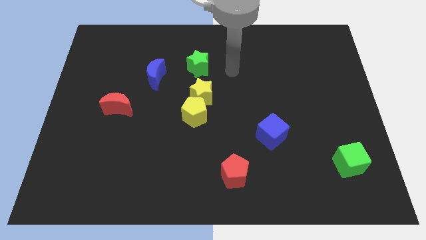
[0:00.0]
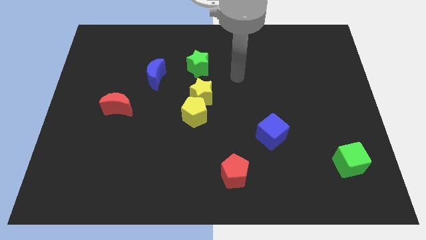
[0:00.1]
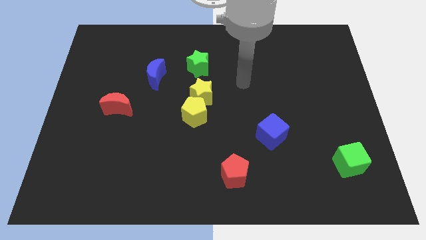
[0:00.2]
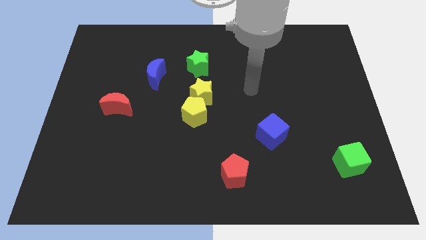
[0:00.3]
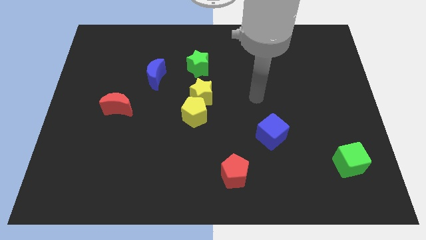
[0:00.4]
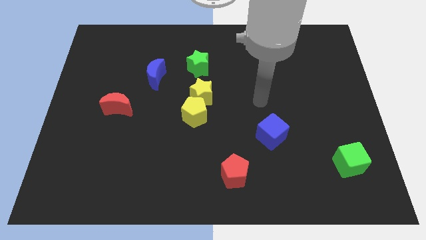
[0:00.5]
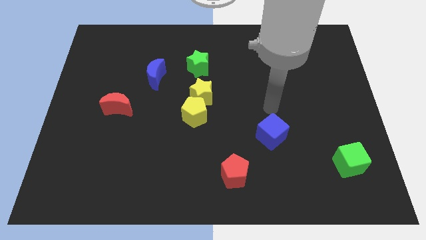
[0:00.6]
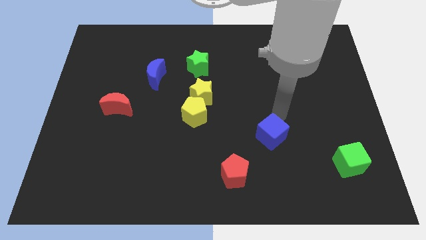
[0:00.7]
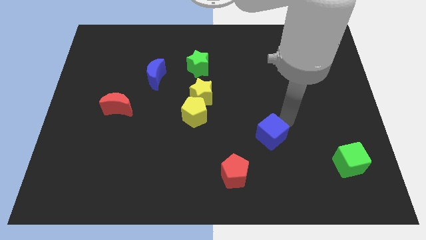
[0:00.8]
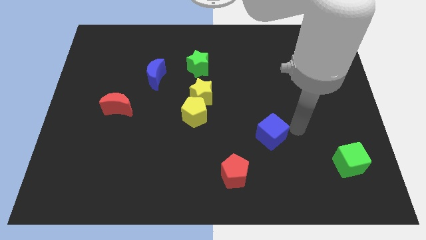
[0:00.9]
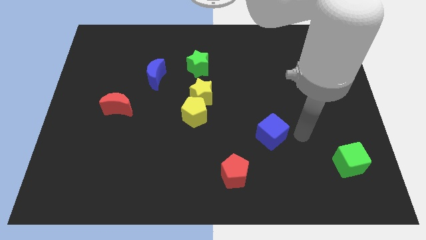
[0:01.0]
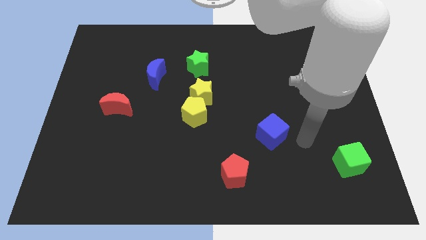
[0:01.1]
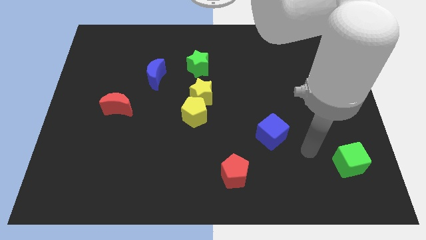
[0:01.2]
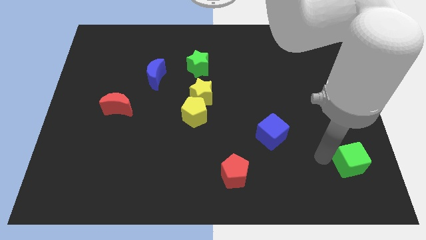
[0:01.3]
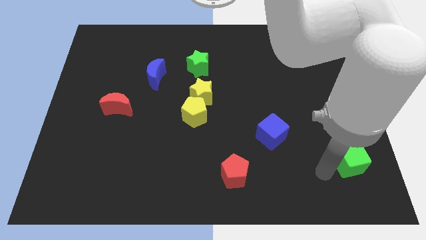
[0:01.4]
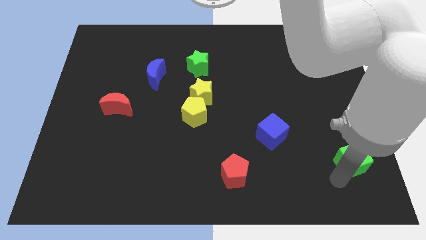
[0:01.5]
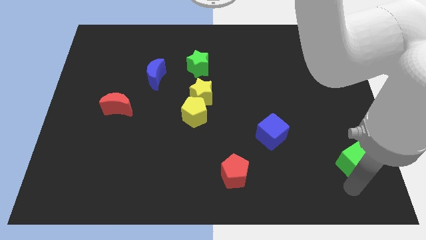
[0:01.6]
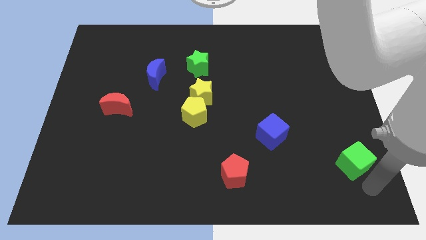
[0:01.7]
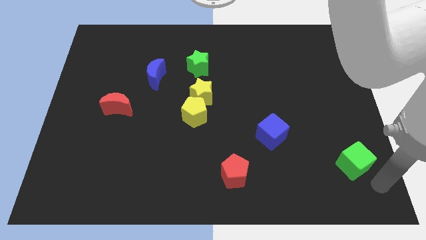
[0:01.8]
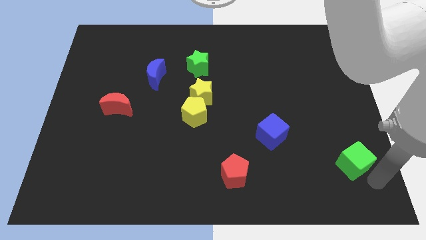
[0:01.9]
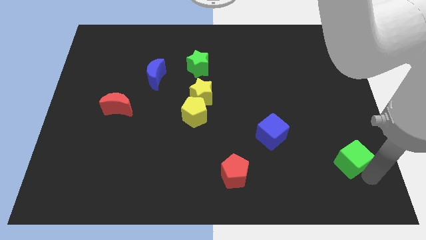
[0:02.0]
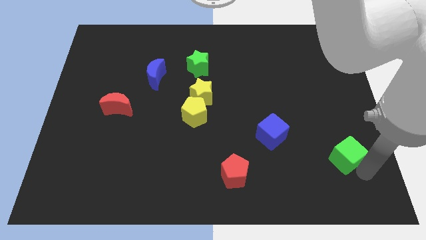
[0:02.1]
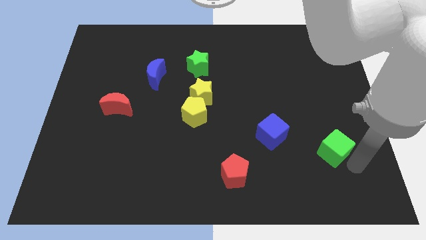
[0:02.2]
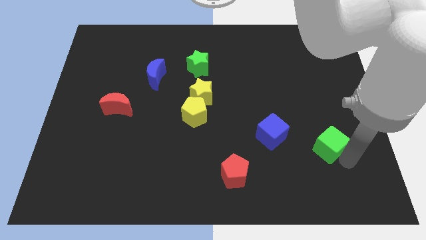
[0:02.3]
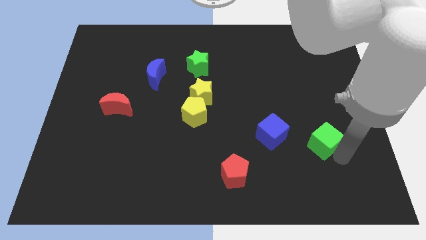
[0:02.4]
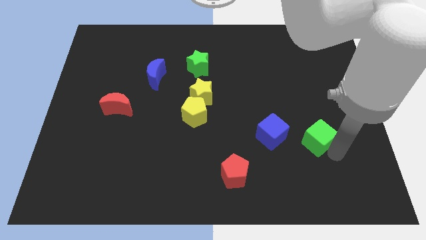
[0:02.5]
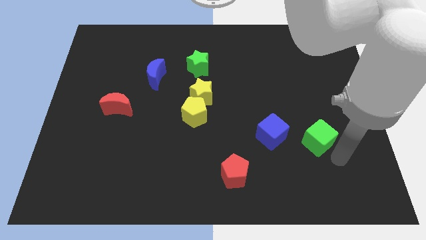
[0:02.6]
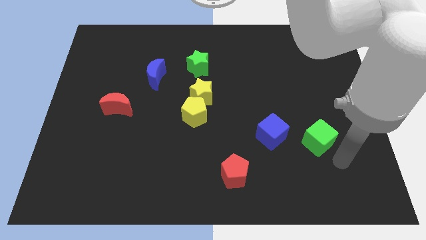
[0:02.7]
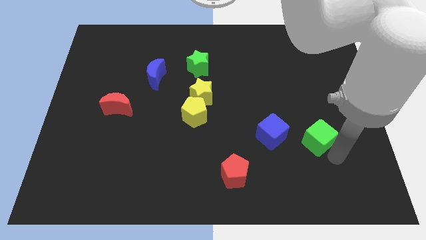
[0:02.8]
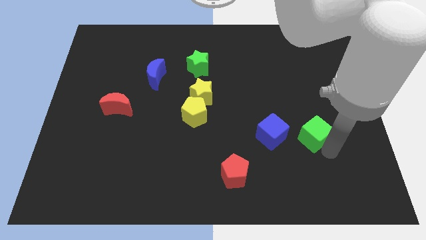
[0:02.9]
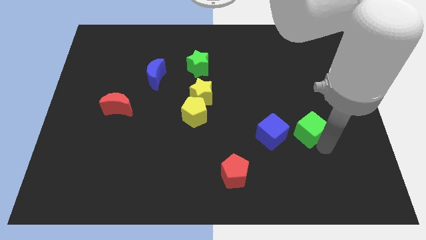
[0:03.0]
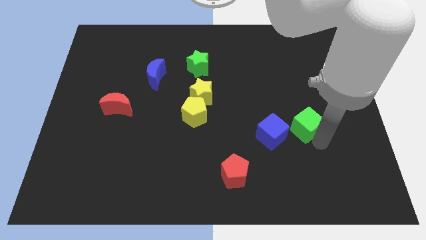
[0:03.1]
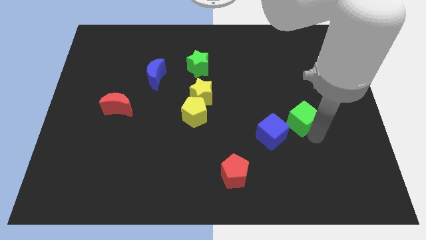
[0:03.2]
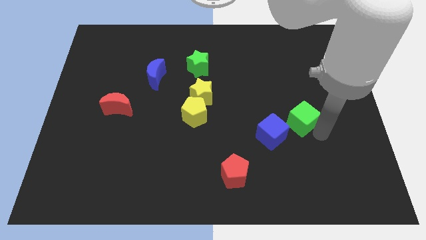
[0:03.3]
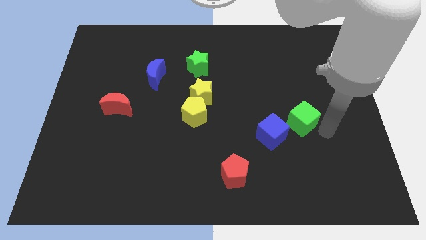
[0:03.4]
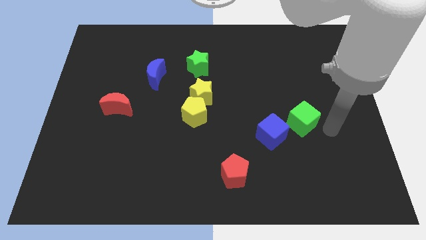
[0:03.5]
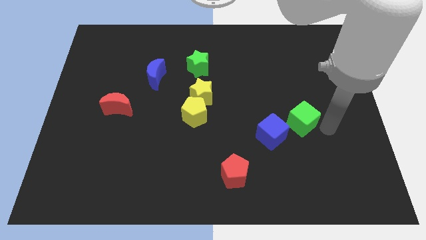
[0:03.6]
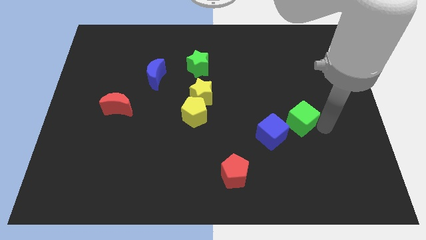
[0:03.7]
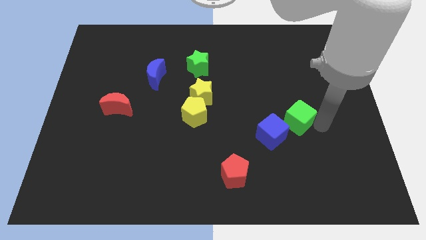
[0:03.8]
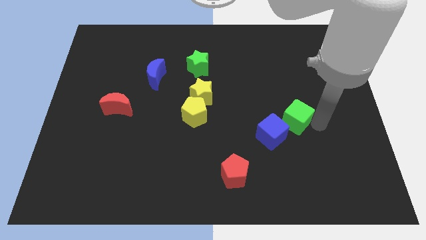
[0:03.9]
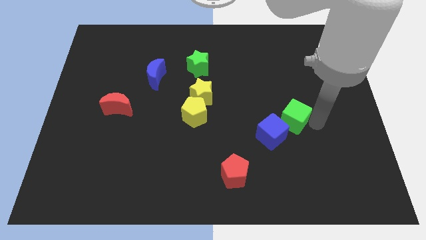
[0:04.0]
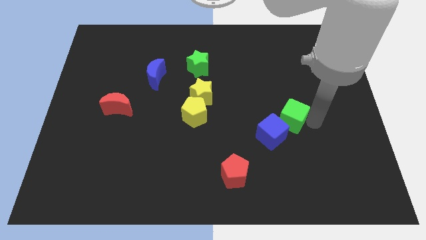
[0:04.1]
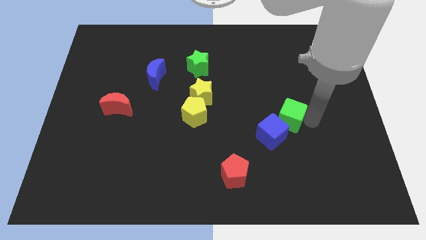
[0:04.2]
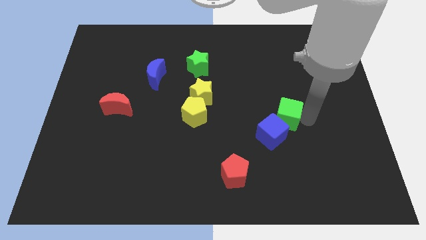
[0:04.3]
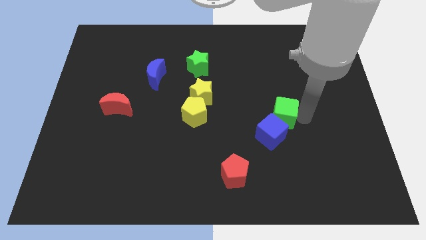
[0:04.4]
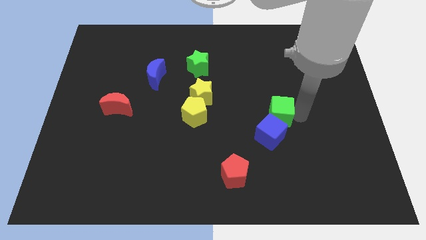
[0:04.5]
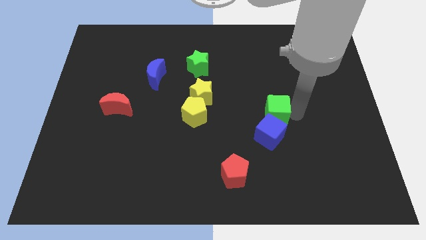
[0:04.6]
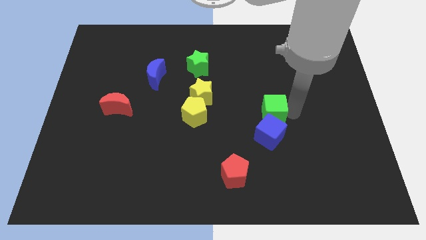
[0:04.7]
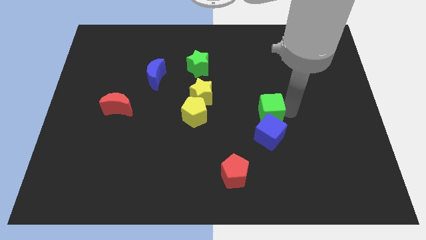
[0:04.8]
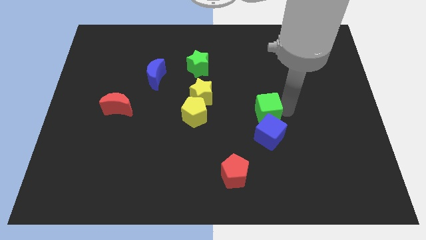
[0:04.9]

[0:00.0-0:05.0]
slide the green cube to the top left of the blue cube

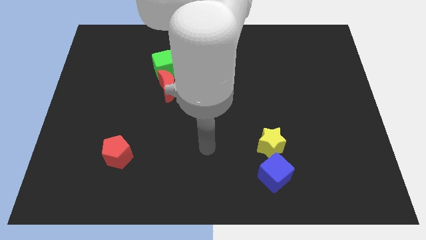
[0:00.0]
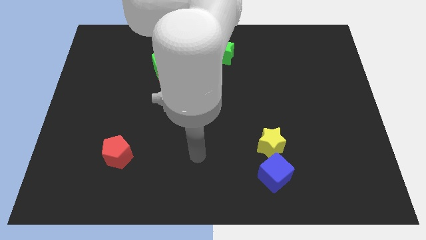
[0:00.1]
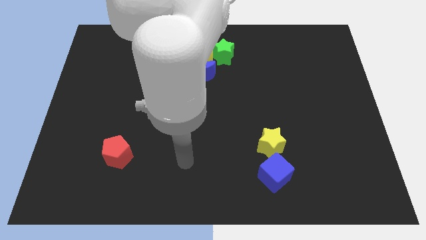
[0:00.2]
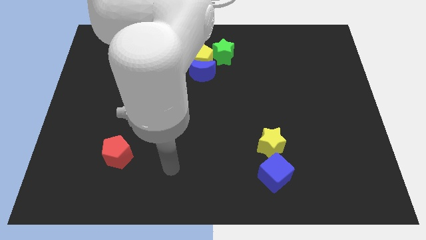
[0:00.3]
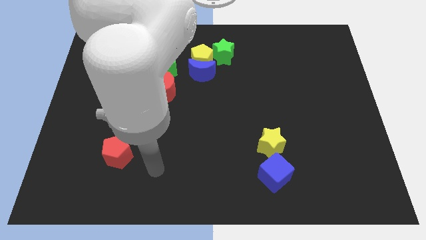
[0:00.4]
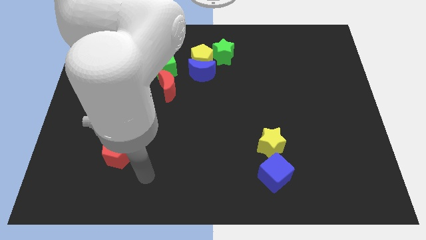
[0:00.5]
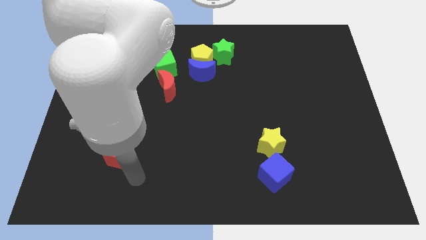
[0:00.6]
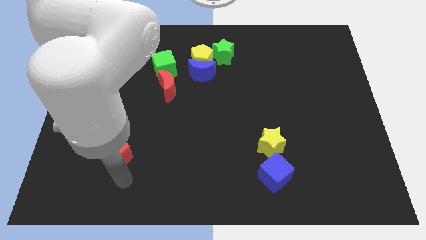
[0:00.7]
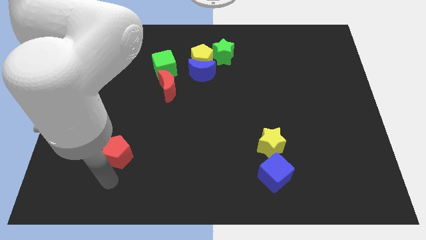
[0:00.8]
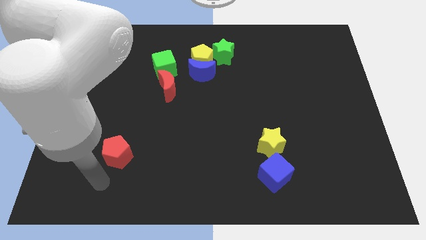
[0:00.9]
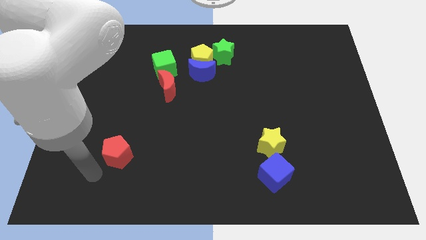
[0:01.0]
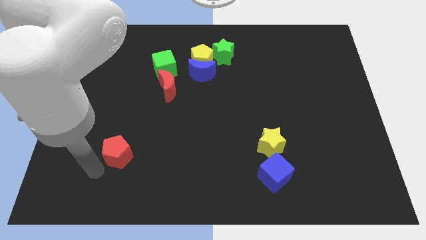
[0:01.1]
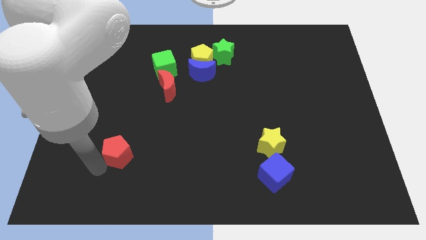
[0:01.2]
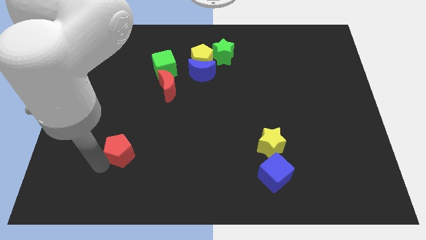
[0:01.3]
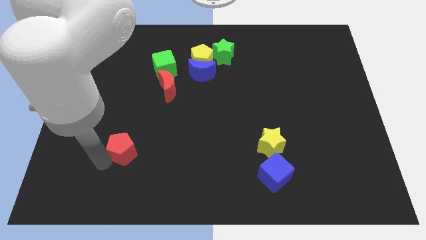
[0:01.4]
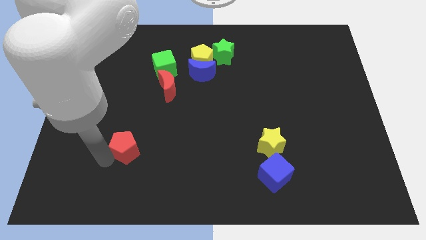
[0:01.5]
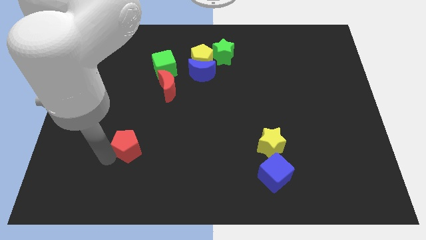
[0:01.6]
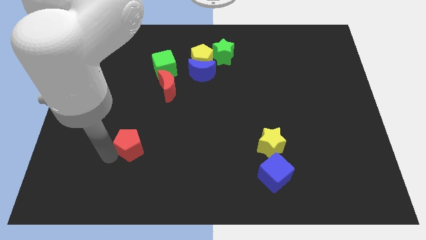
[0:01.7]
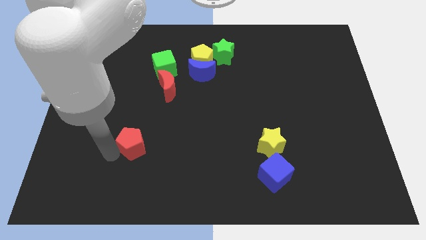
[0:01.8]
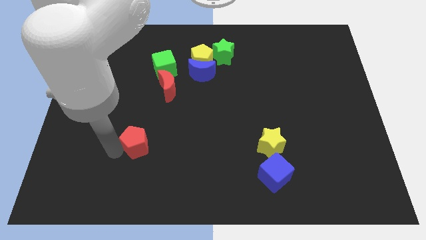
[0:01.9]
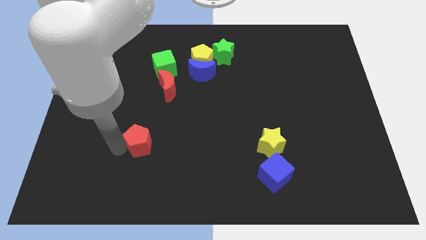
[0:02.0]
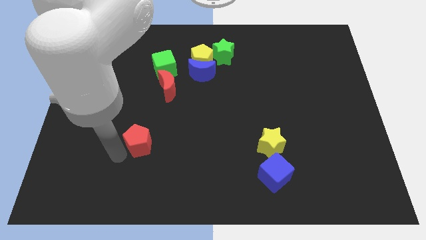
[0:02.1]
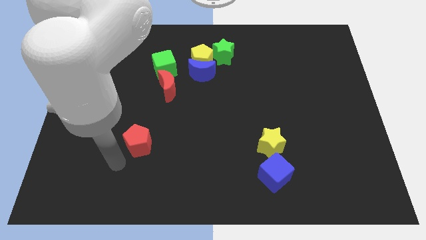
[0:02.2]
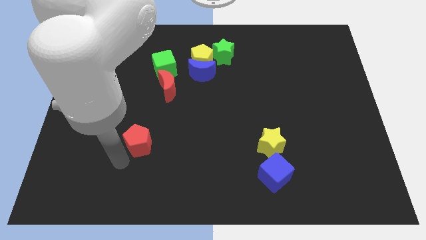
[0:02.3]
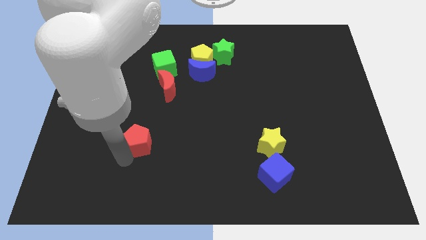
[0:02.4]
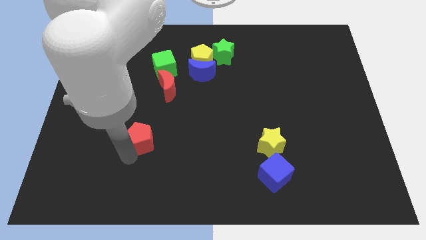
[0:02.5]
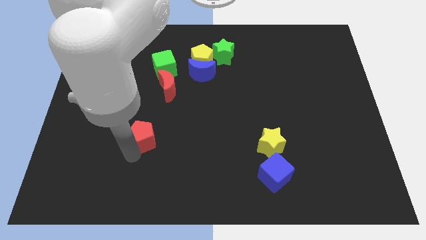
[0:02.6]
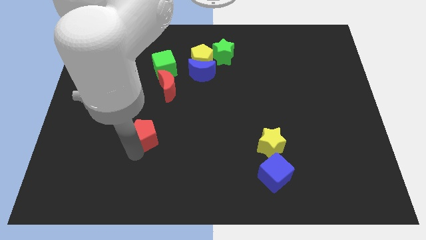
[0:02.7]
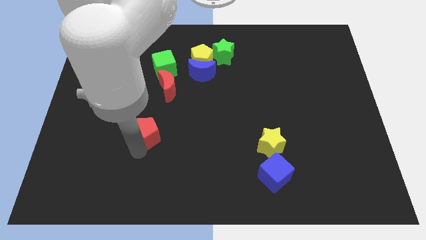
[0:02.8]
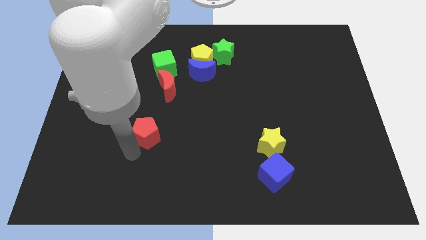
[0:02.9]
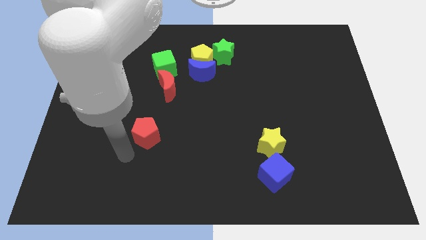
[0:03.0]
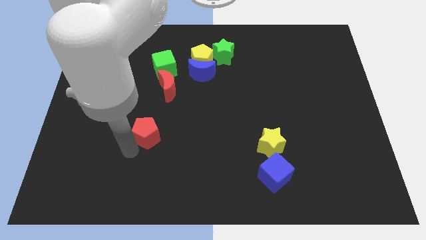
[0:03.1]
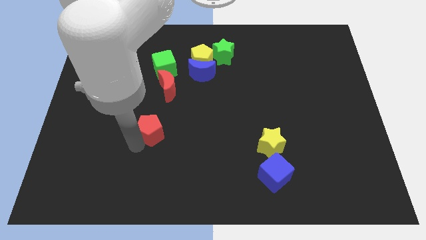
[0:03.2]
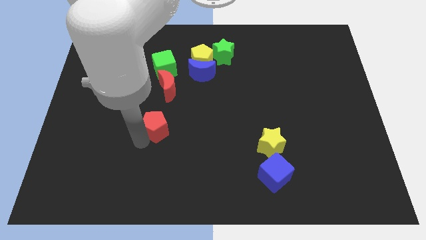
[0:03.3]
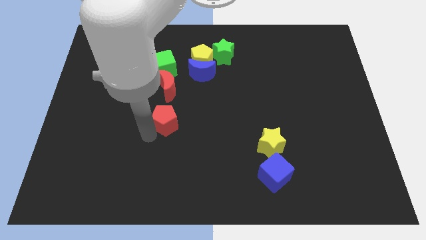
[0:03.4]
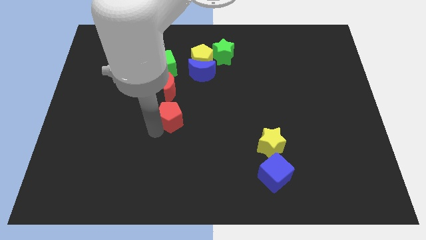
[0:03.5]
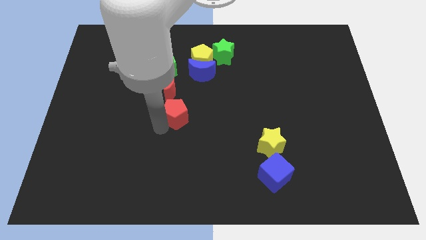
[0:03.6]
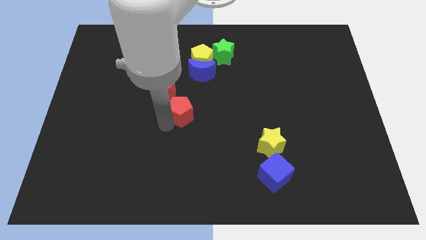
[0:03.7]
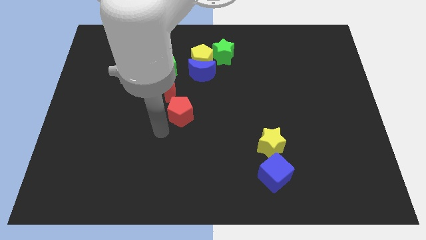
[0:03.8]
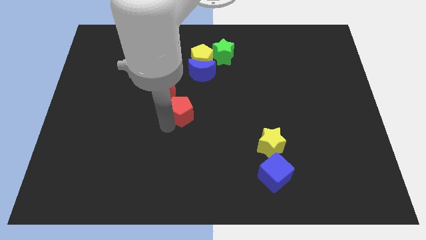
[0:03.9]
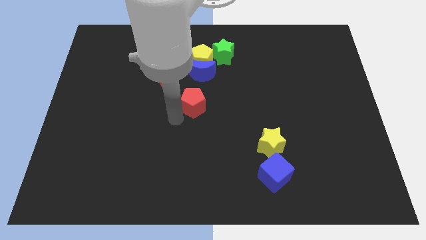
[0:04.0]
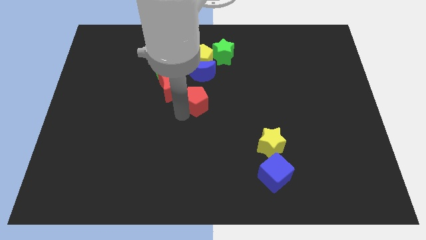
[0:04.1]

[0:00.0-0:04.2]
slide the red pentagon just right of the red moon
